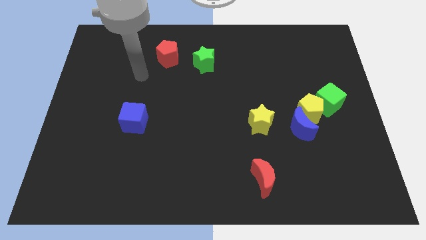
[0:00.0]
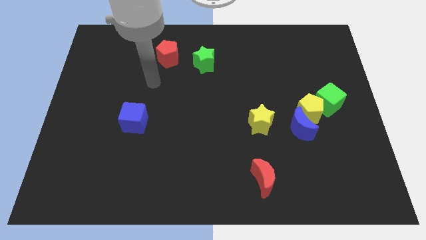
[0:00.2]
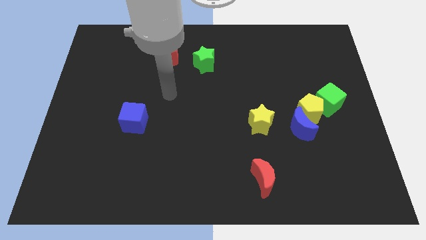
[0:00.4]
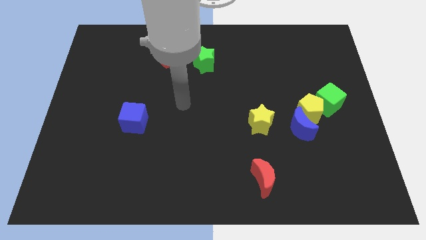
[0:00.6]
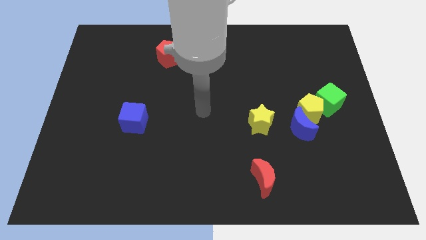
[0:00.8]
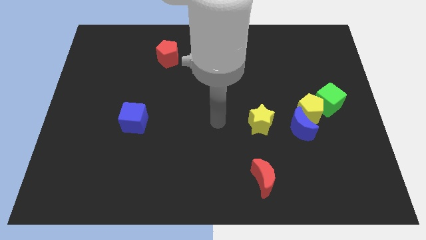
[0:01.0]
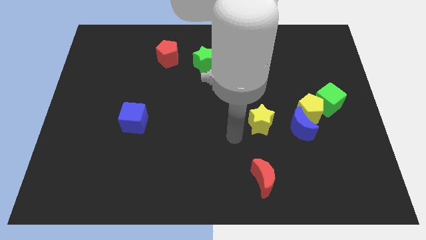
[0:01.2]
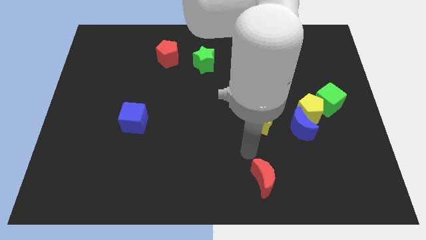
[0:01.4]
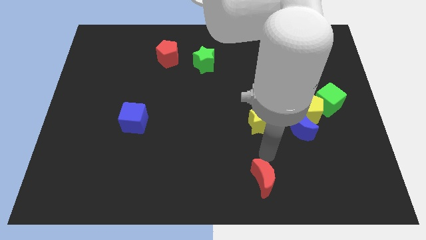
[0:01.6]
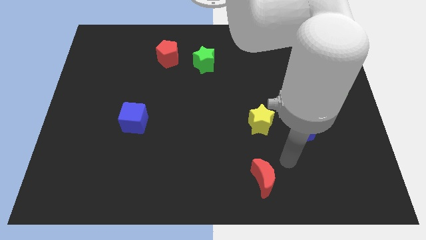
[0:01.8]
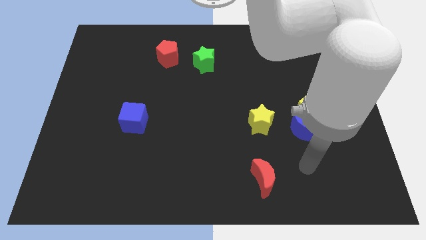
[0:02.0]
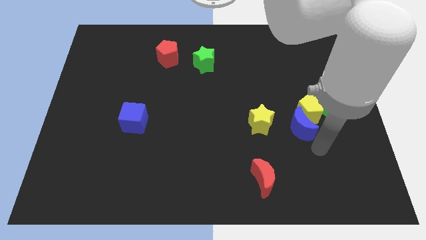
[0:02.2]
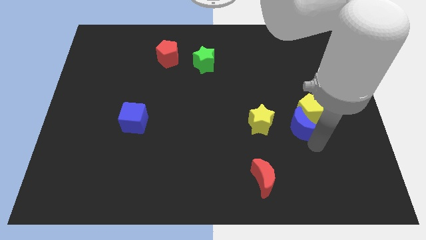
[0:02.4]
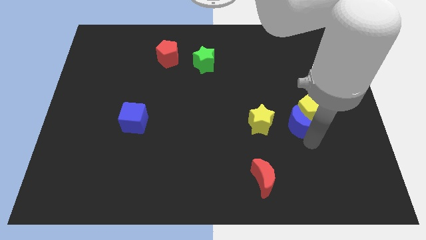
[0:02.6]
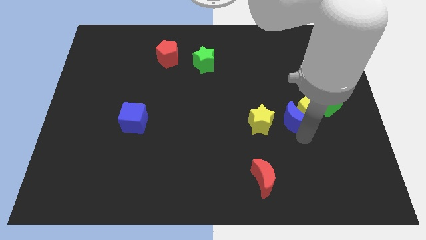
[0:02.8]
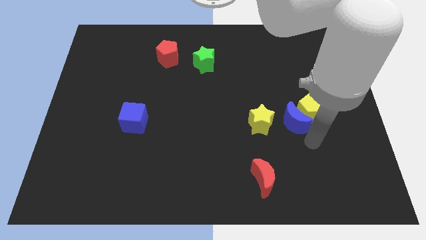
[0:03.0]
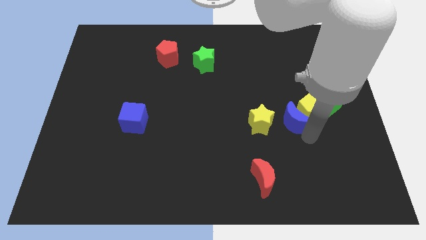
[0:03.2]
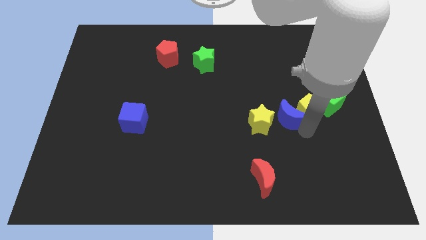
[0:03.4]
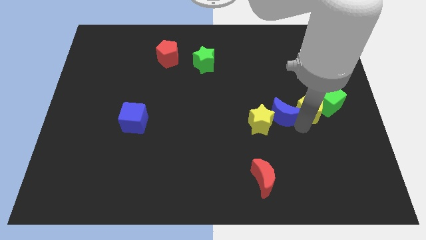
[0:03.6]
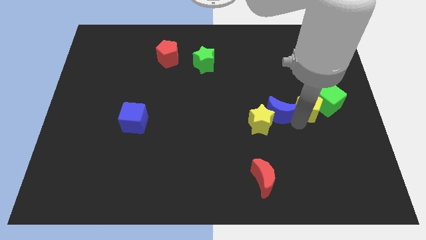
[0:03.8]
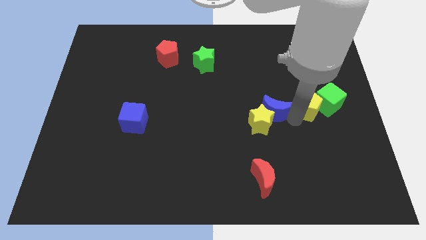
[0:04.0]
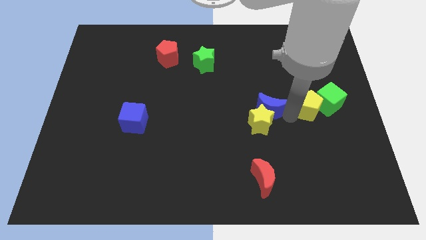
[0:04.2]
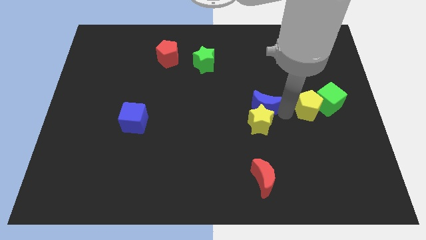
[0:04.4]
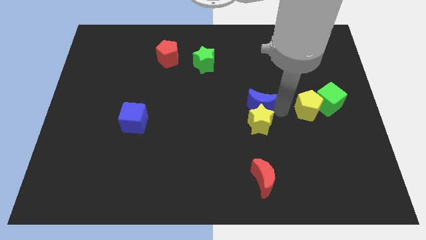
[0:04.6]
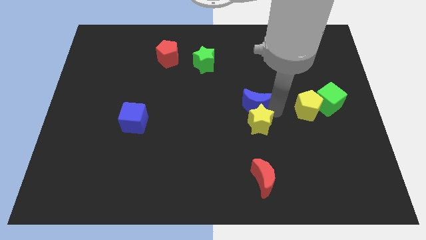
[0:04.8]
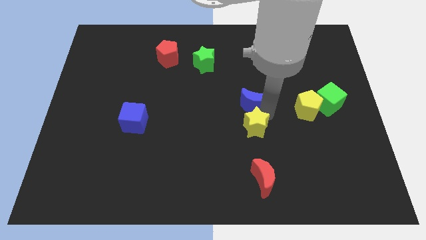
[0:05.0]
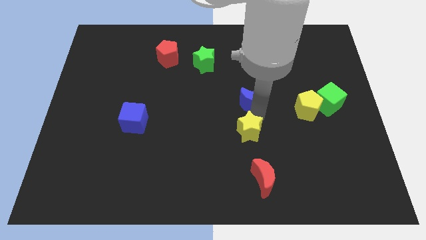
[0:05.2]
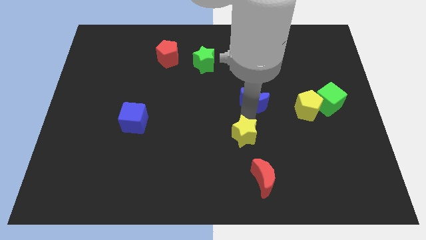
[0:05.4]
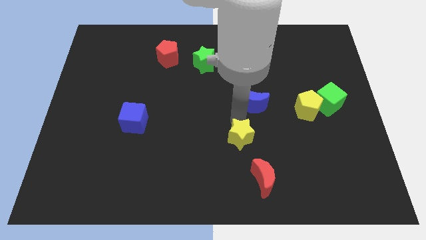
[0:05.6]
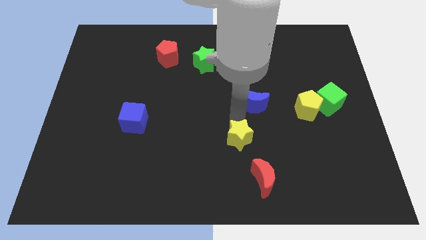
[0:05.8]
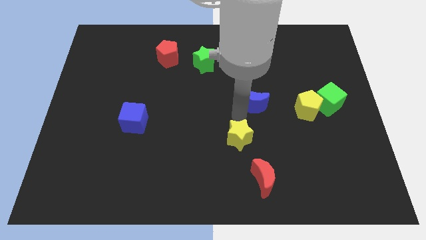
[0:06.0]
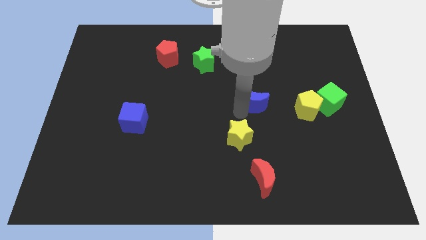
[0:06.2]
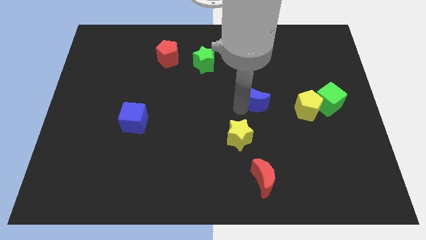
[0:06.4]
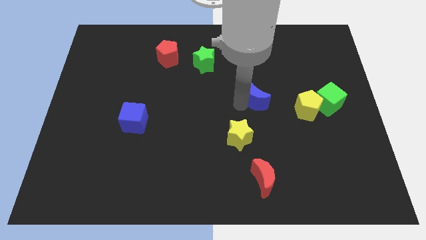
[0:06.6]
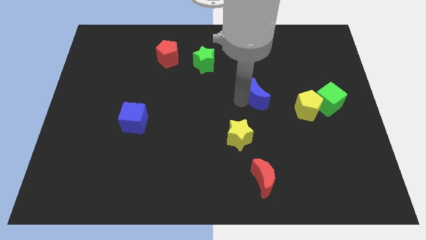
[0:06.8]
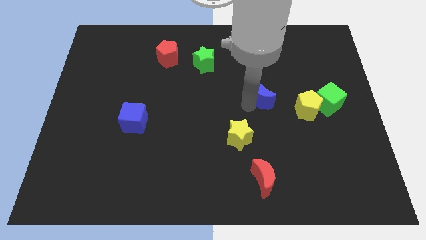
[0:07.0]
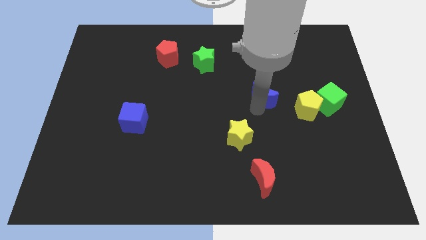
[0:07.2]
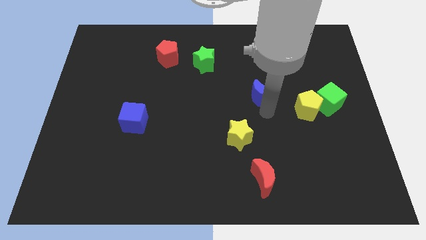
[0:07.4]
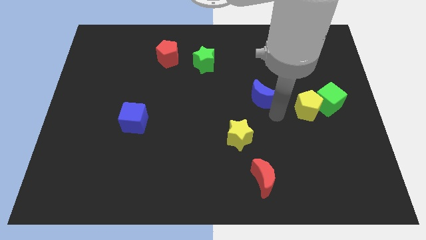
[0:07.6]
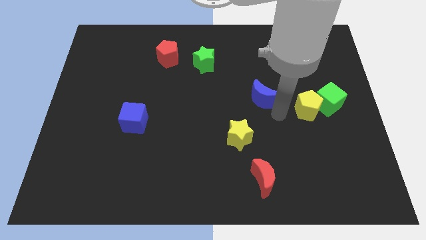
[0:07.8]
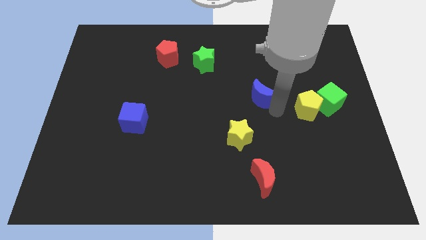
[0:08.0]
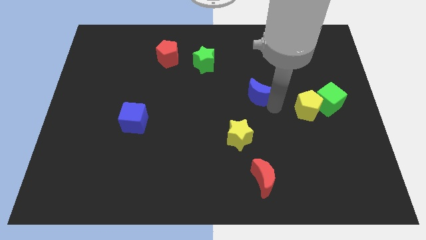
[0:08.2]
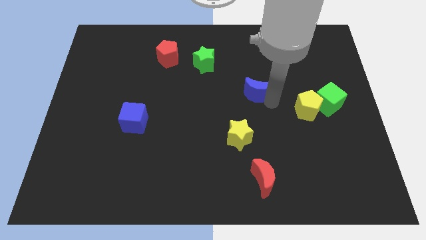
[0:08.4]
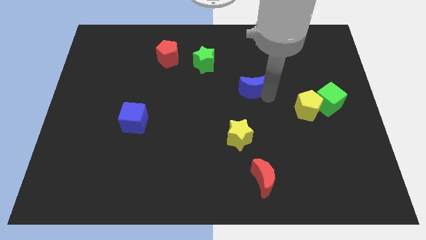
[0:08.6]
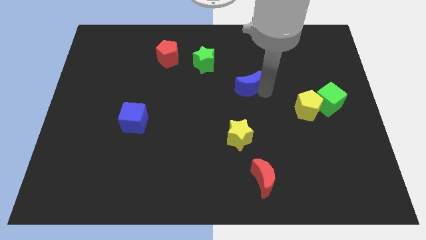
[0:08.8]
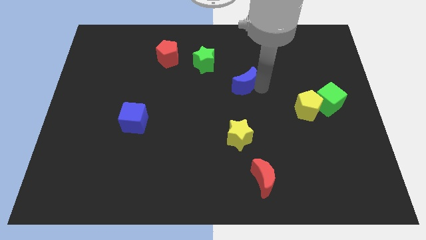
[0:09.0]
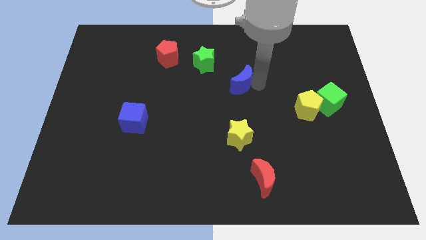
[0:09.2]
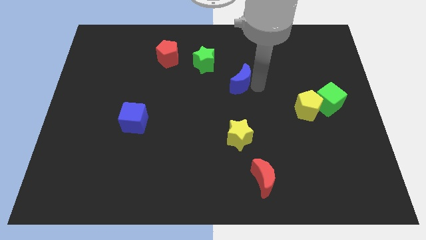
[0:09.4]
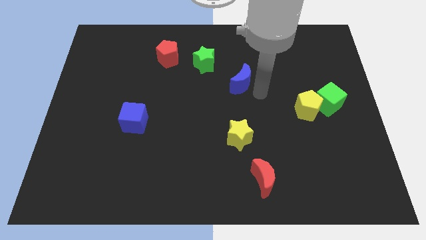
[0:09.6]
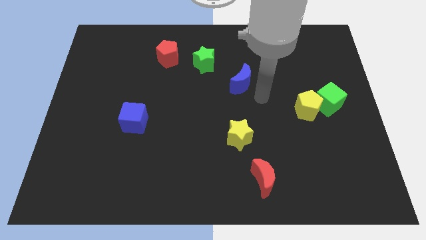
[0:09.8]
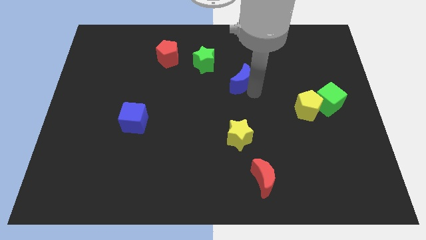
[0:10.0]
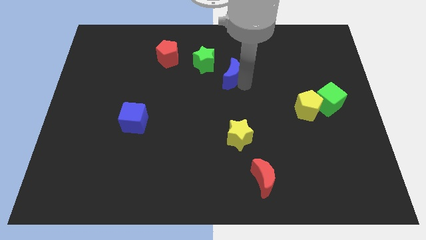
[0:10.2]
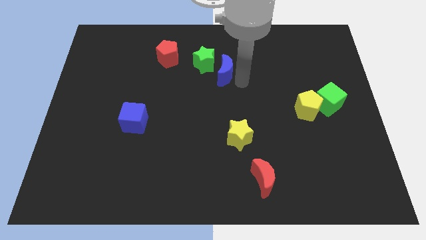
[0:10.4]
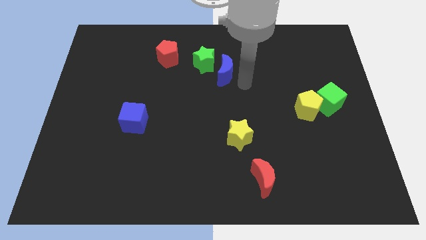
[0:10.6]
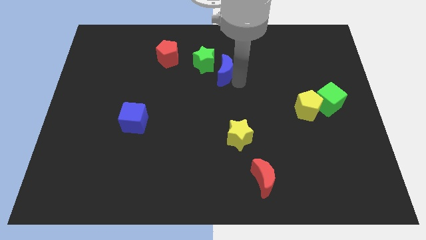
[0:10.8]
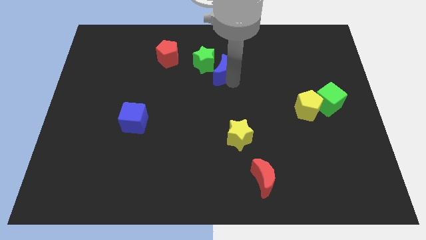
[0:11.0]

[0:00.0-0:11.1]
slide the blue moon next to the green star
